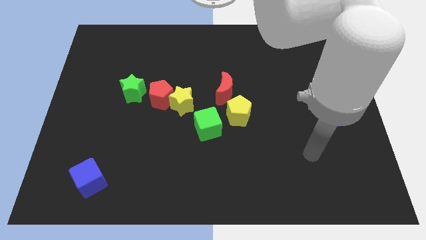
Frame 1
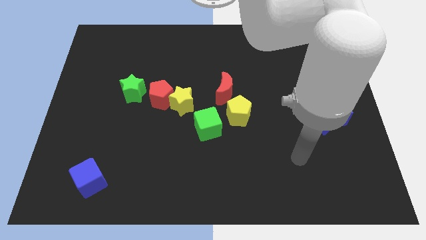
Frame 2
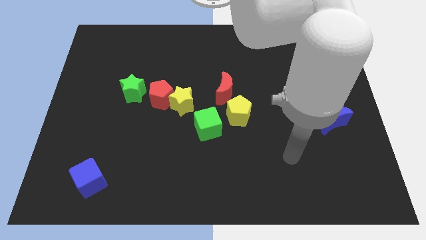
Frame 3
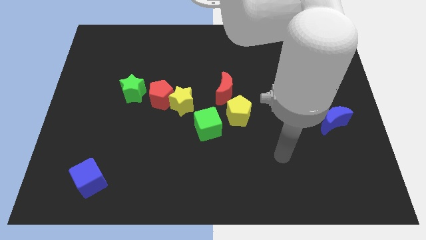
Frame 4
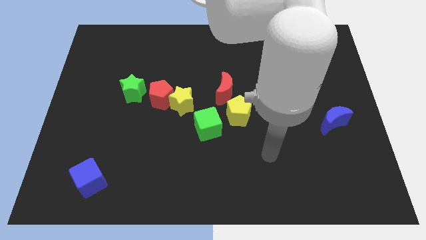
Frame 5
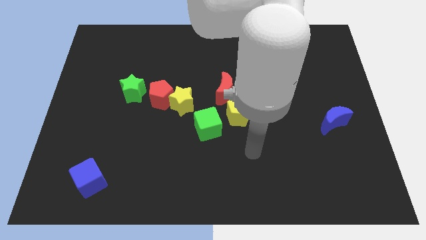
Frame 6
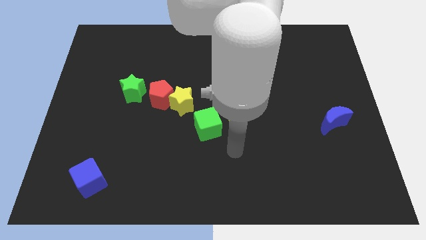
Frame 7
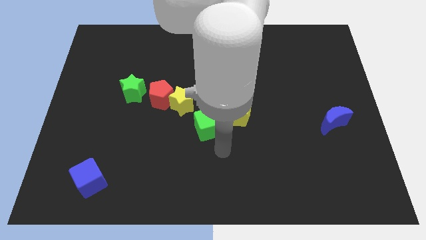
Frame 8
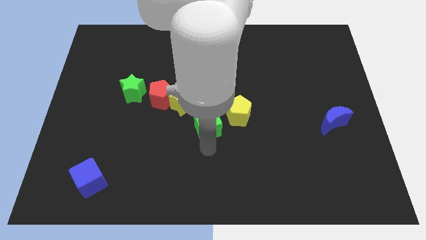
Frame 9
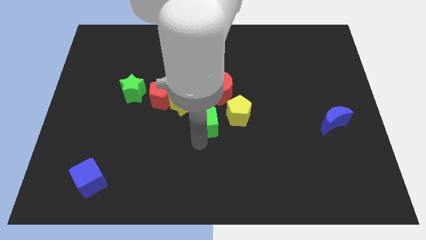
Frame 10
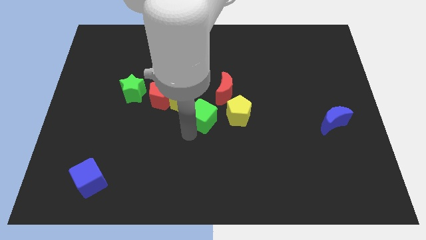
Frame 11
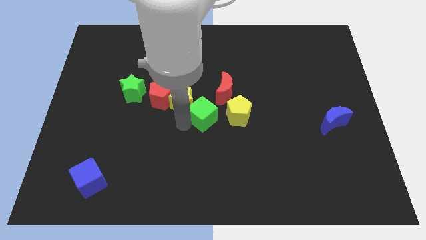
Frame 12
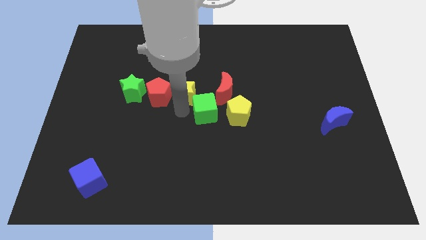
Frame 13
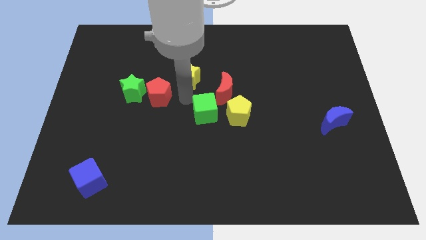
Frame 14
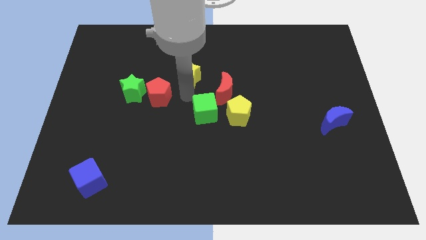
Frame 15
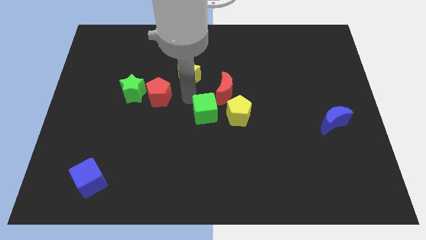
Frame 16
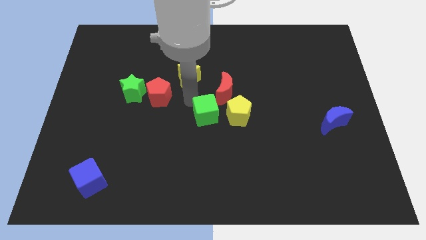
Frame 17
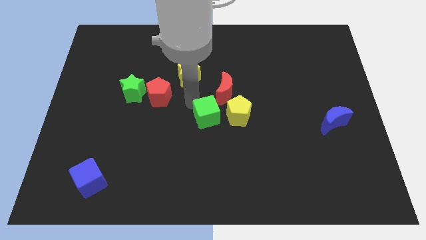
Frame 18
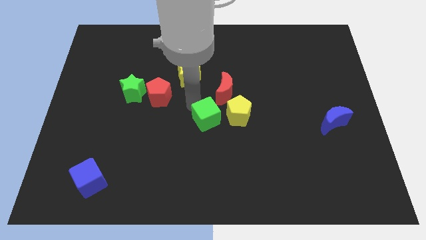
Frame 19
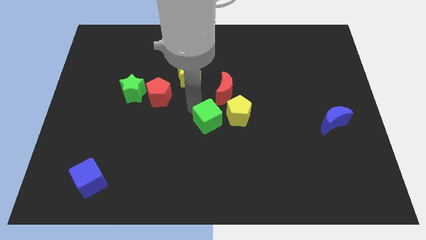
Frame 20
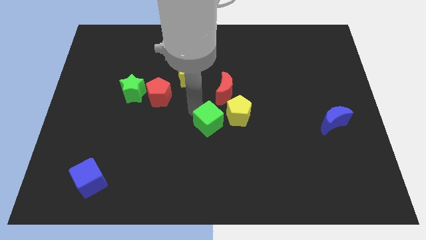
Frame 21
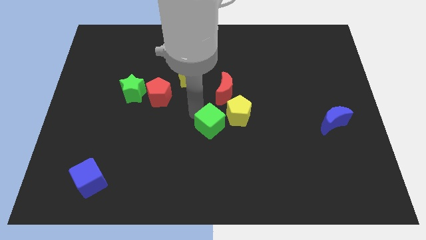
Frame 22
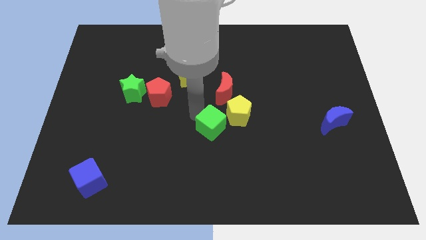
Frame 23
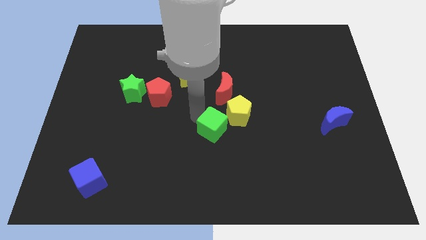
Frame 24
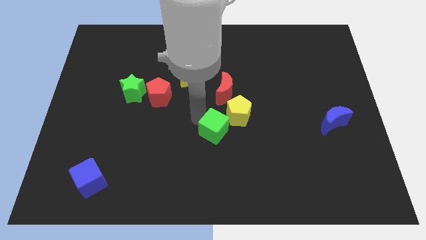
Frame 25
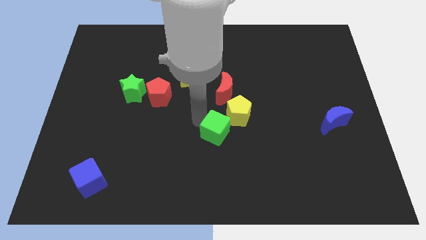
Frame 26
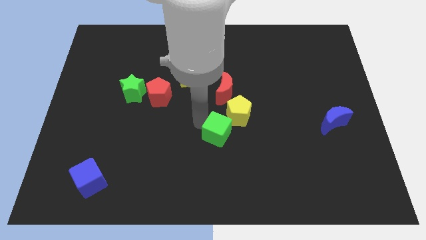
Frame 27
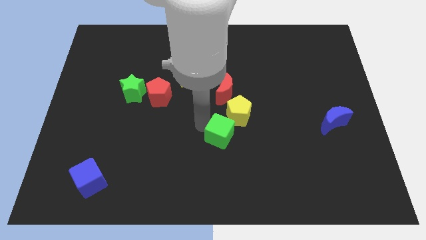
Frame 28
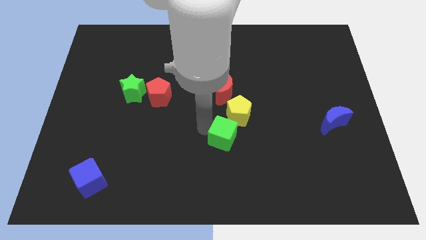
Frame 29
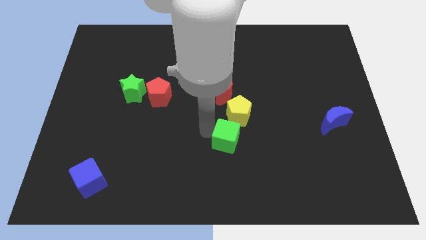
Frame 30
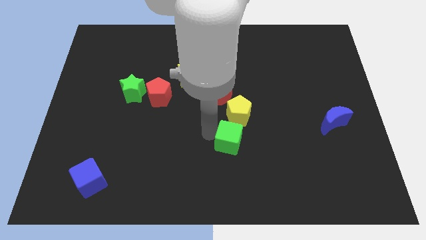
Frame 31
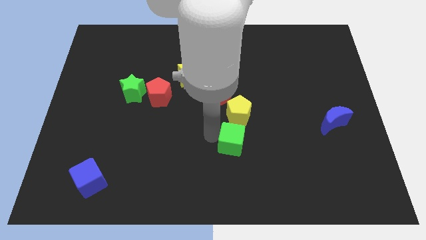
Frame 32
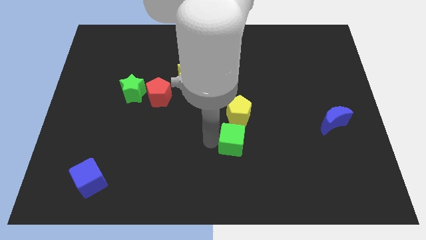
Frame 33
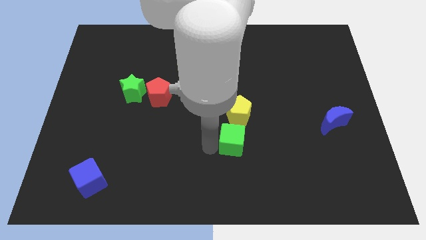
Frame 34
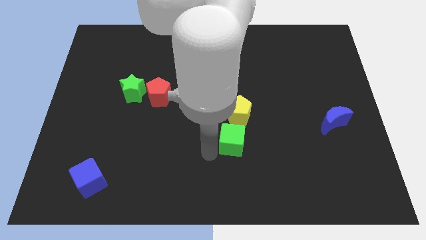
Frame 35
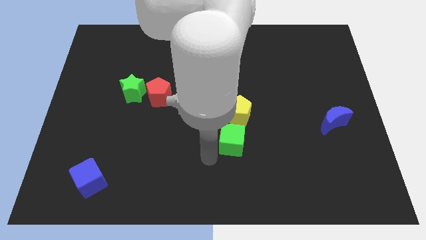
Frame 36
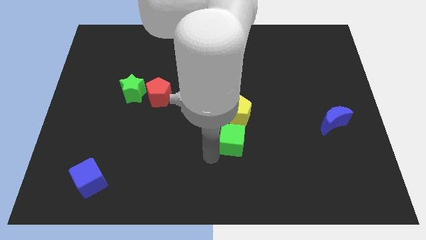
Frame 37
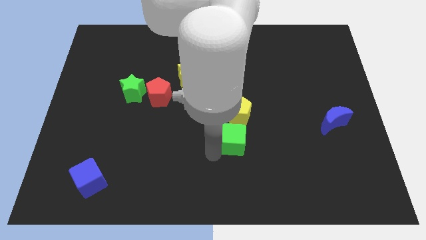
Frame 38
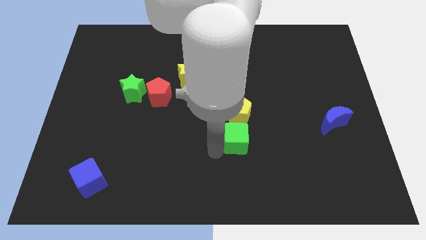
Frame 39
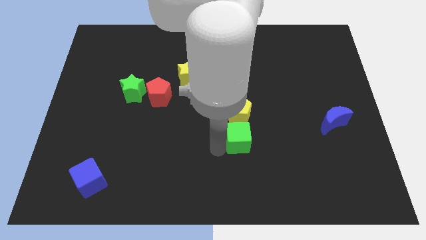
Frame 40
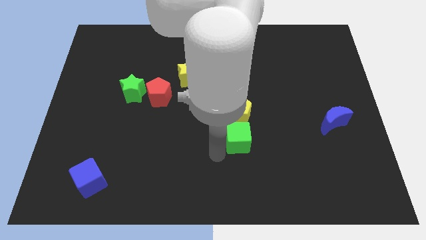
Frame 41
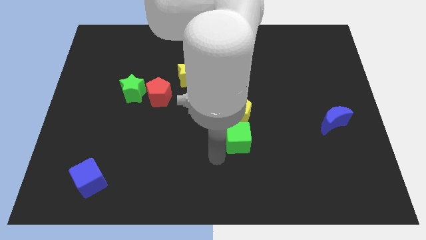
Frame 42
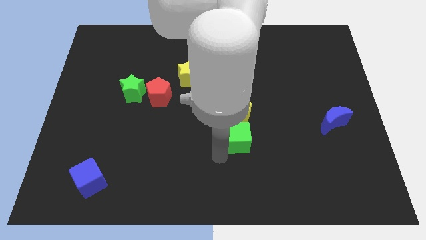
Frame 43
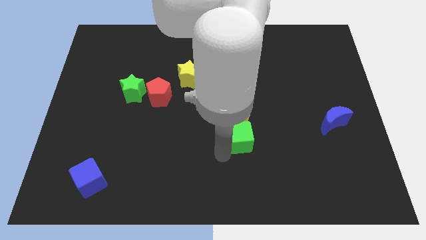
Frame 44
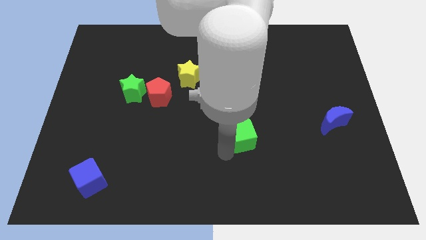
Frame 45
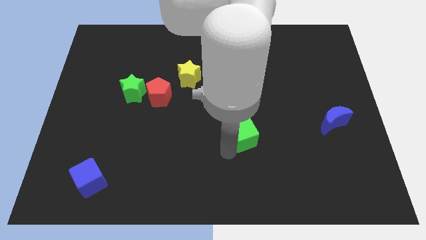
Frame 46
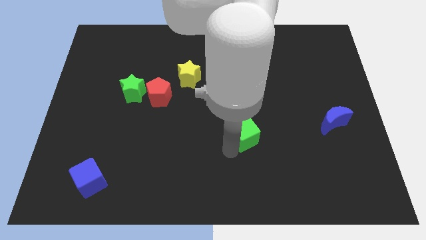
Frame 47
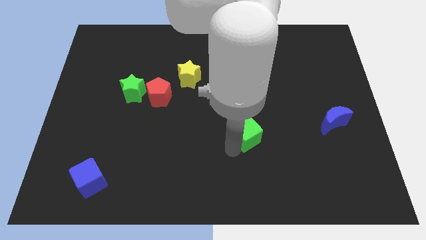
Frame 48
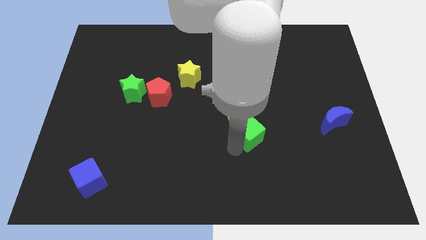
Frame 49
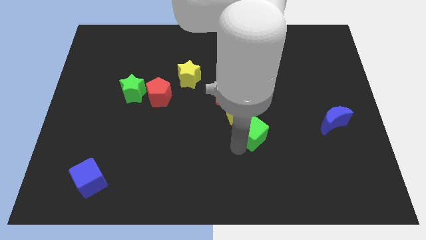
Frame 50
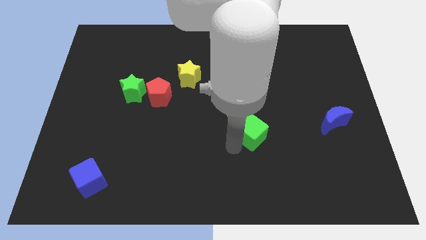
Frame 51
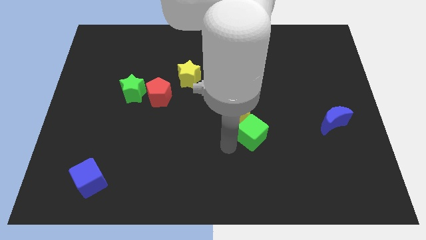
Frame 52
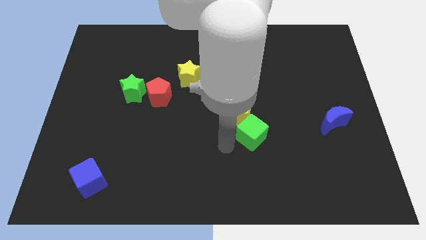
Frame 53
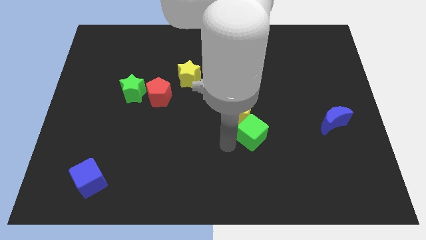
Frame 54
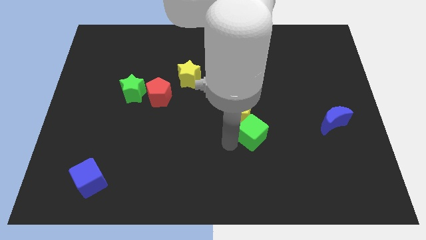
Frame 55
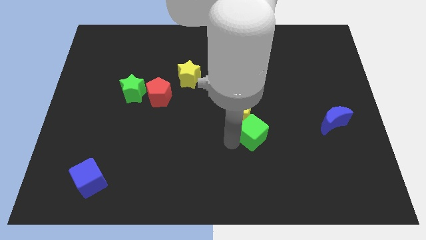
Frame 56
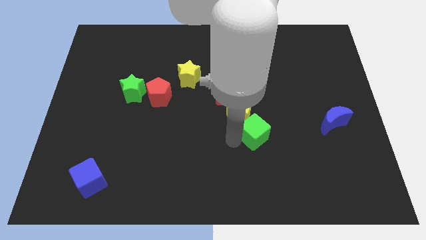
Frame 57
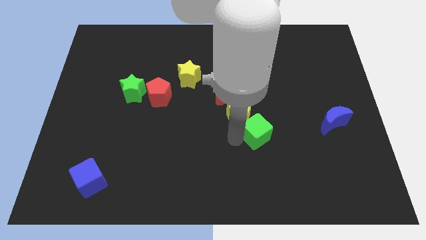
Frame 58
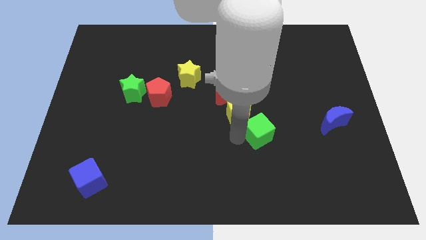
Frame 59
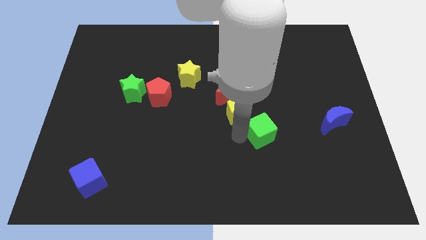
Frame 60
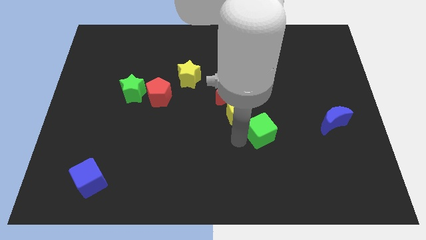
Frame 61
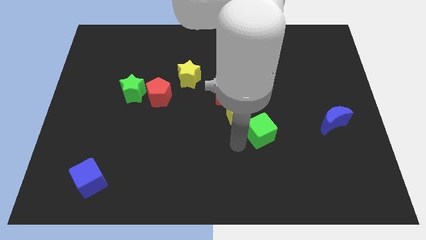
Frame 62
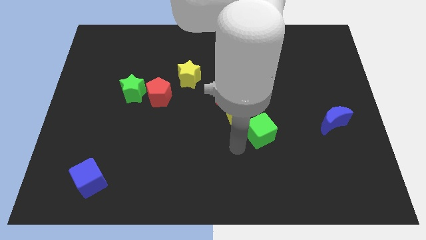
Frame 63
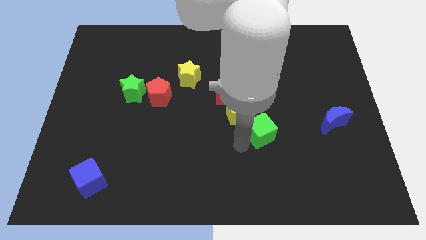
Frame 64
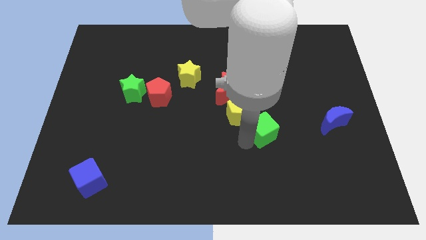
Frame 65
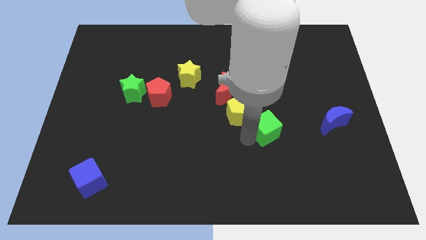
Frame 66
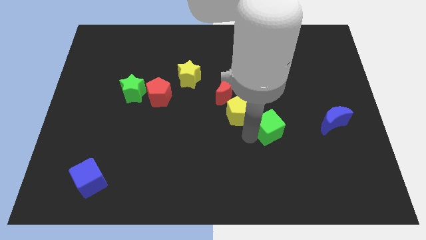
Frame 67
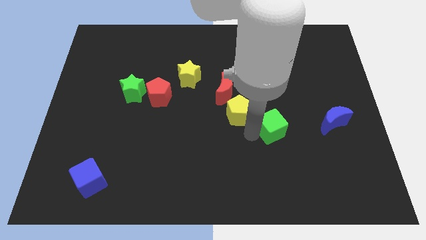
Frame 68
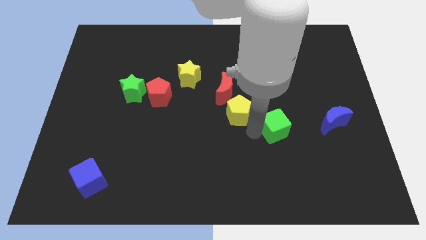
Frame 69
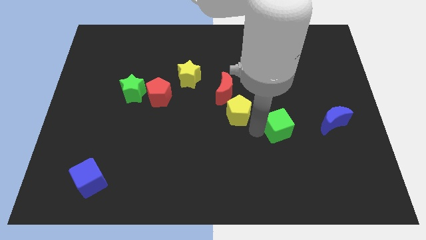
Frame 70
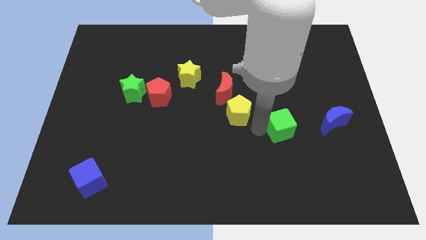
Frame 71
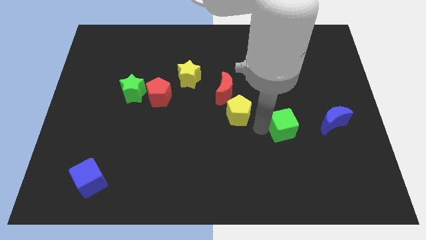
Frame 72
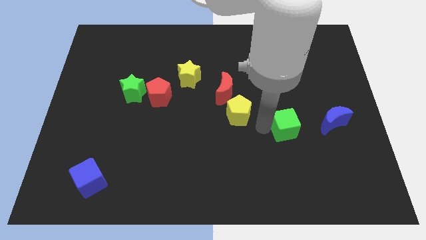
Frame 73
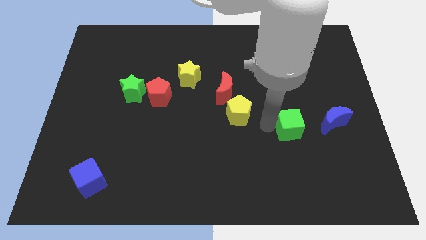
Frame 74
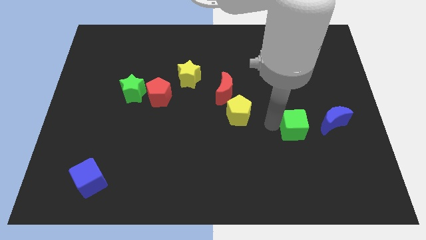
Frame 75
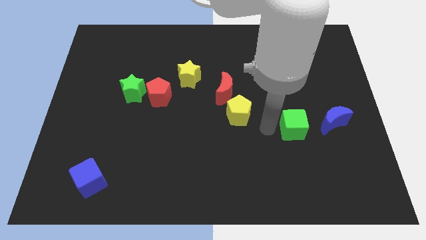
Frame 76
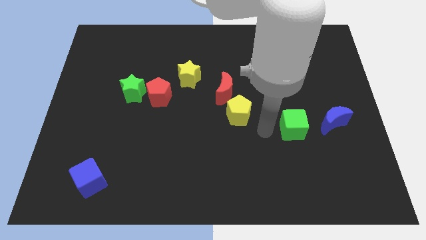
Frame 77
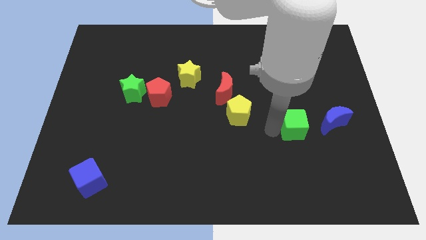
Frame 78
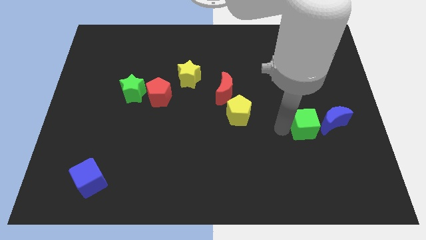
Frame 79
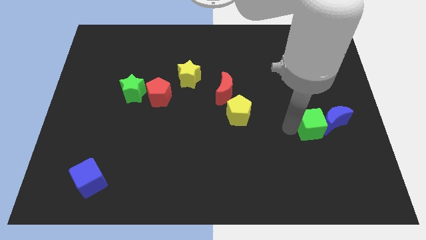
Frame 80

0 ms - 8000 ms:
put the green cube close to the blue moon

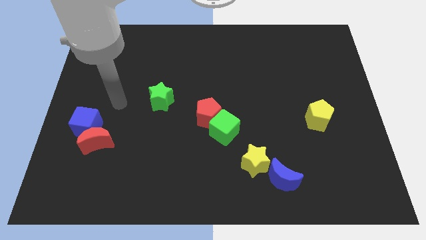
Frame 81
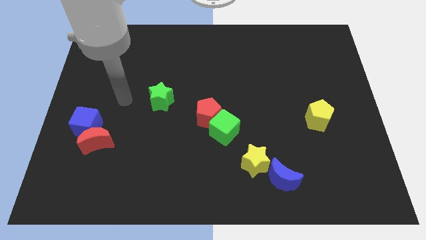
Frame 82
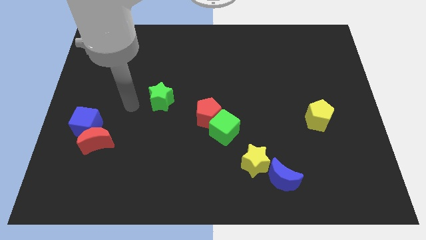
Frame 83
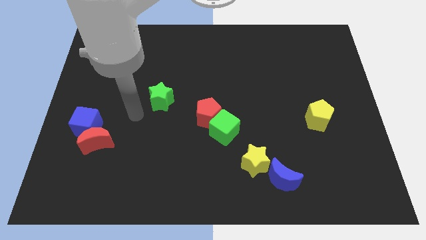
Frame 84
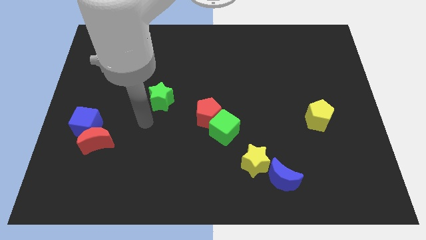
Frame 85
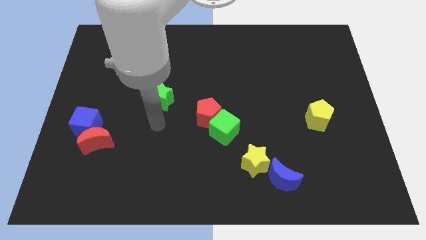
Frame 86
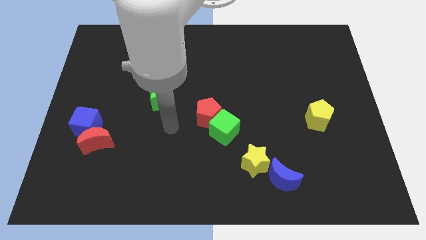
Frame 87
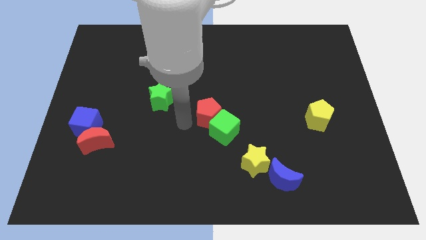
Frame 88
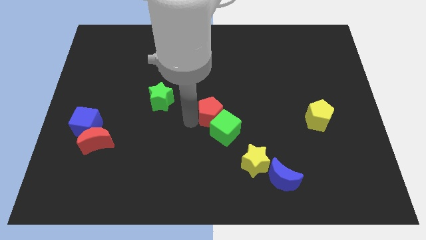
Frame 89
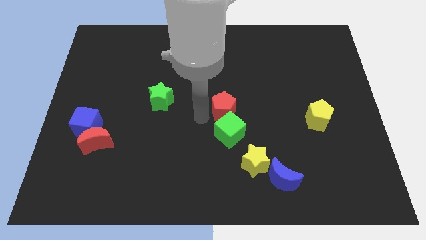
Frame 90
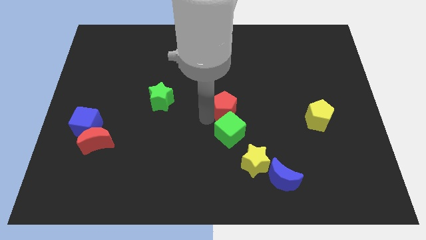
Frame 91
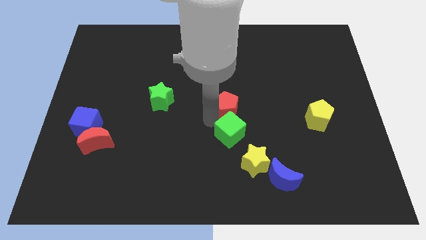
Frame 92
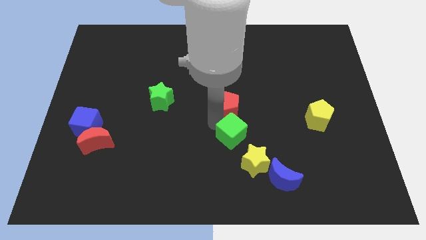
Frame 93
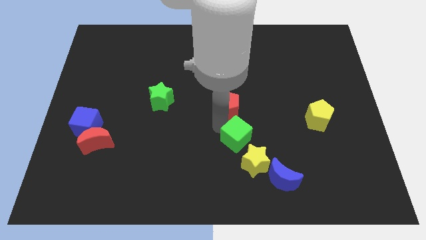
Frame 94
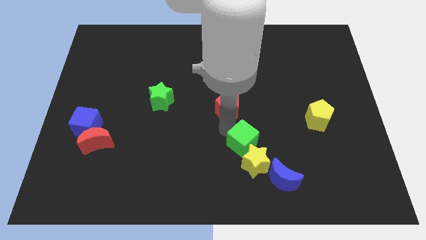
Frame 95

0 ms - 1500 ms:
push the green cube close to the yellow star
